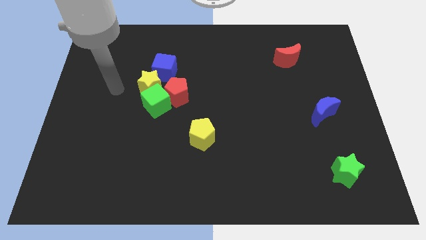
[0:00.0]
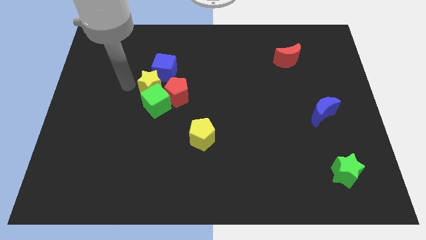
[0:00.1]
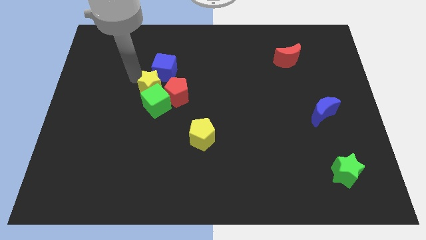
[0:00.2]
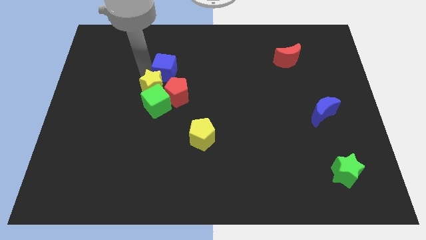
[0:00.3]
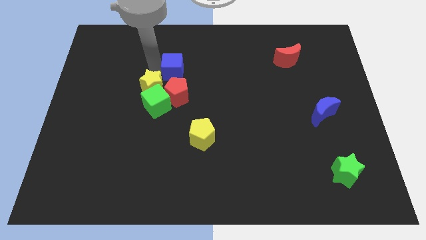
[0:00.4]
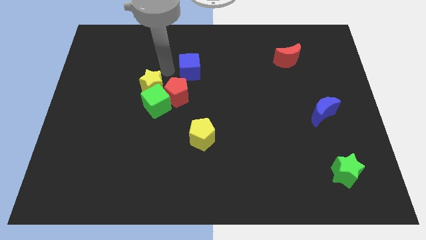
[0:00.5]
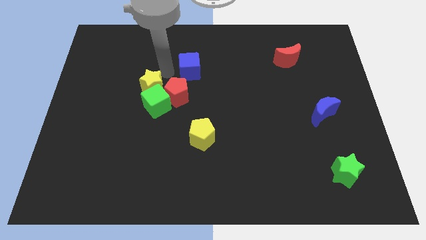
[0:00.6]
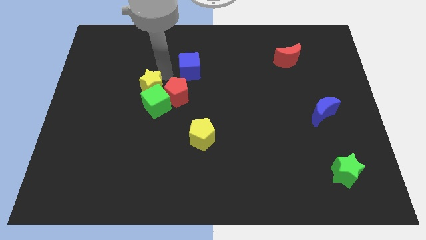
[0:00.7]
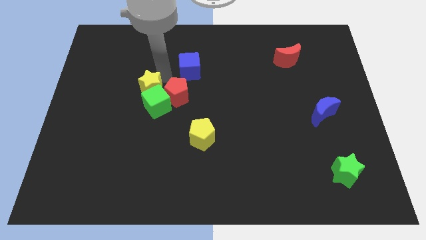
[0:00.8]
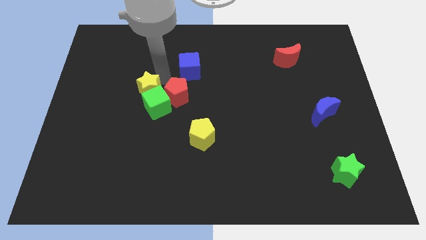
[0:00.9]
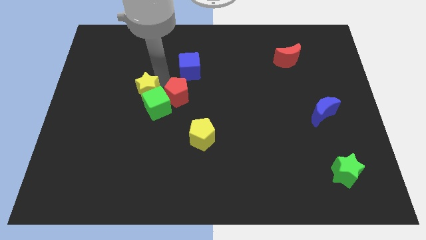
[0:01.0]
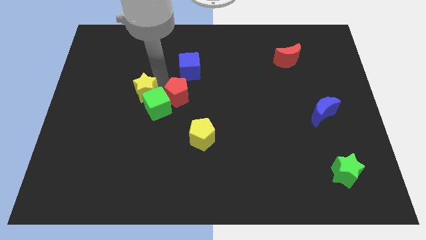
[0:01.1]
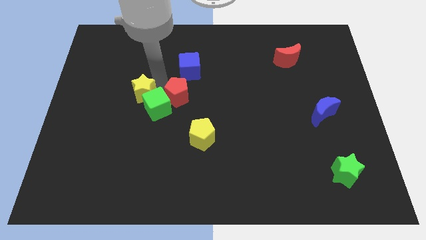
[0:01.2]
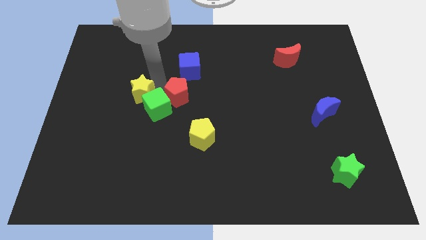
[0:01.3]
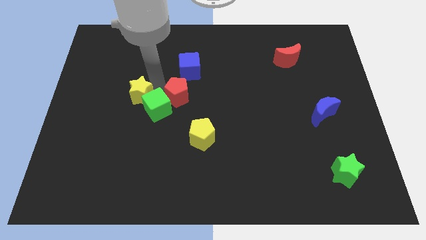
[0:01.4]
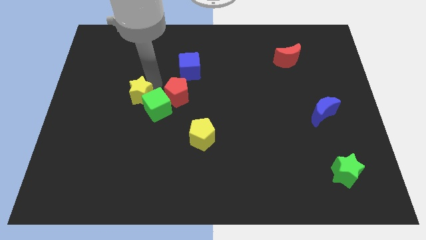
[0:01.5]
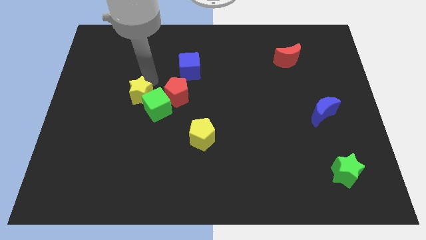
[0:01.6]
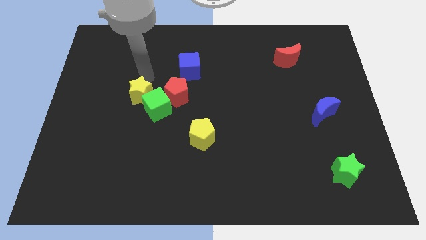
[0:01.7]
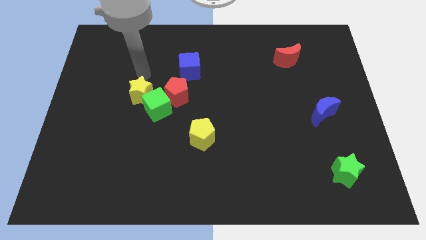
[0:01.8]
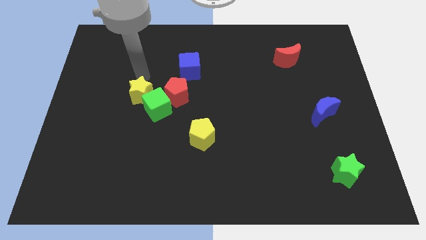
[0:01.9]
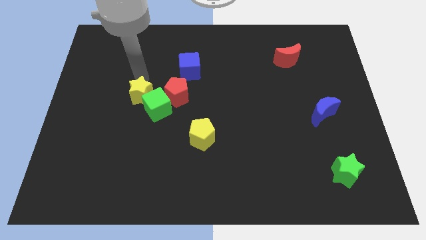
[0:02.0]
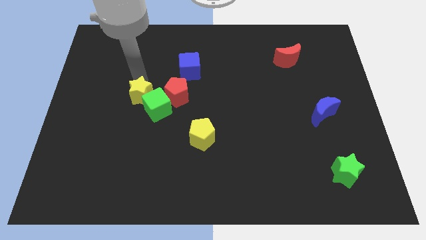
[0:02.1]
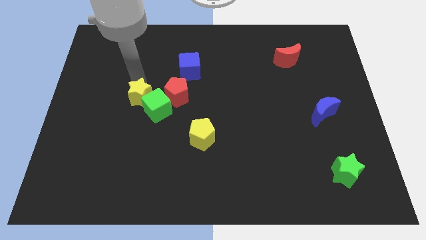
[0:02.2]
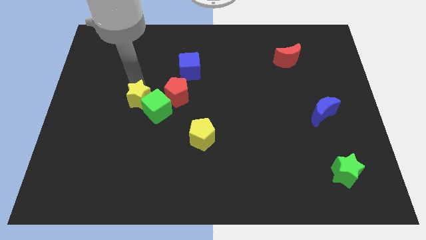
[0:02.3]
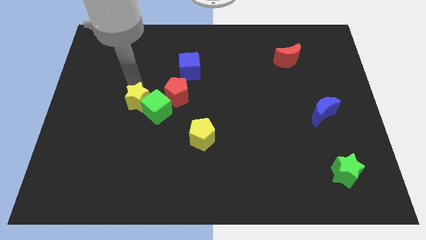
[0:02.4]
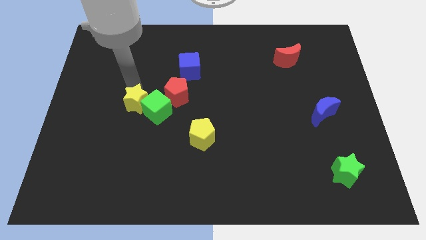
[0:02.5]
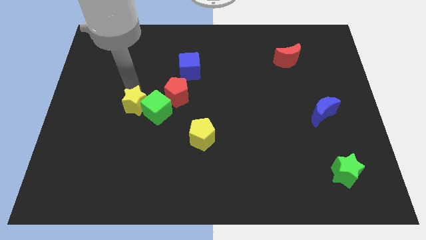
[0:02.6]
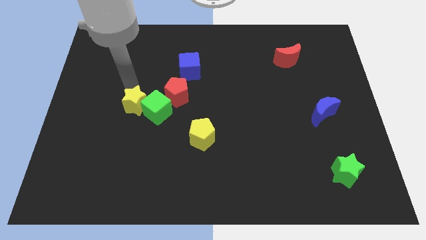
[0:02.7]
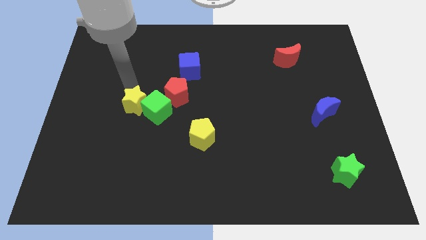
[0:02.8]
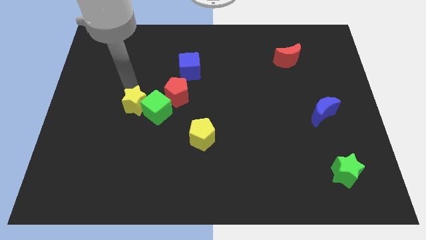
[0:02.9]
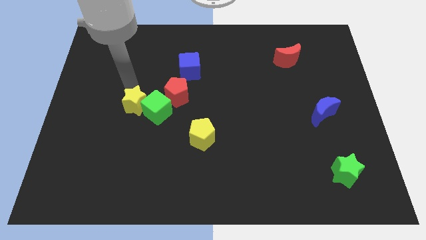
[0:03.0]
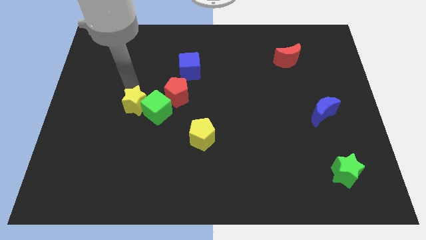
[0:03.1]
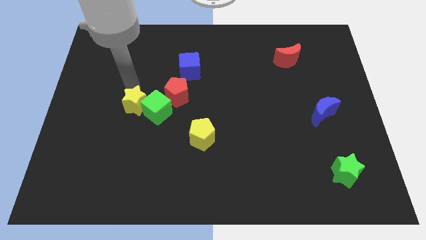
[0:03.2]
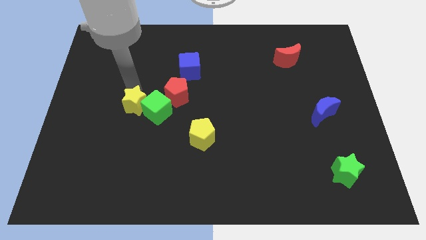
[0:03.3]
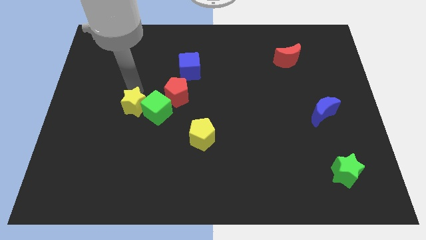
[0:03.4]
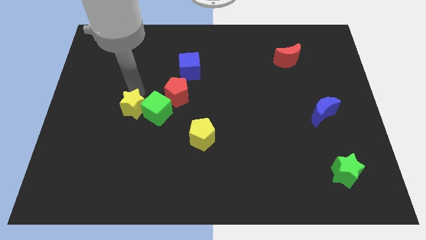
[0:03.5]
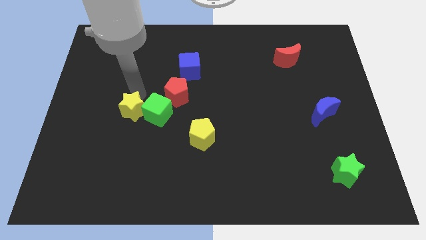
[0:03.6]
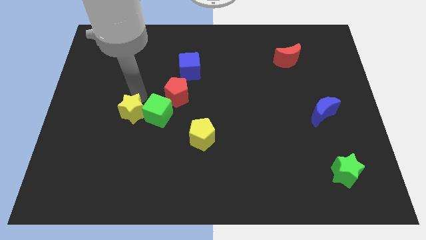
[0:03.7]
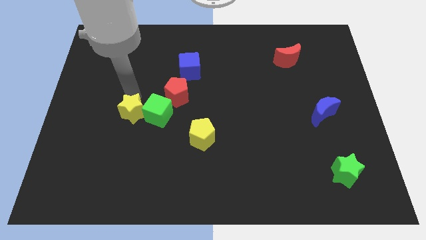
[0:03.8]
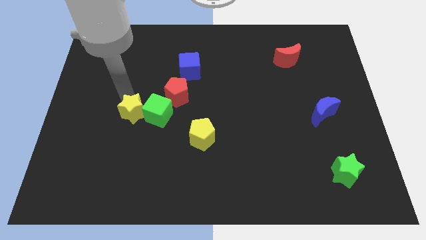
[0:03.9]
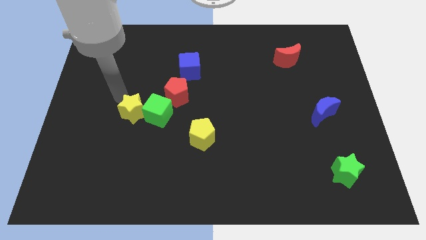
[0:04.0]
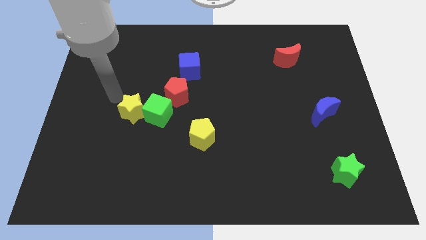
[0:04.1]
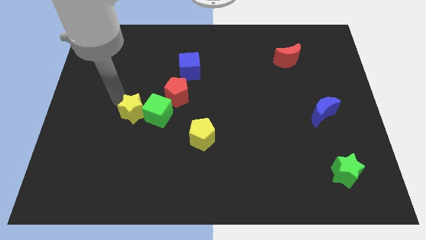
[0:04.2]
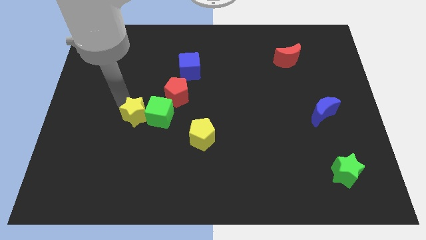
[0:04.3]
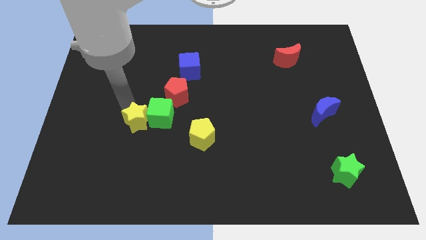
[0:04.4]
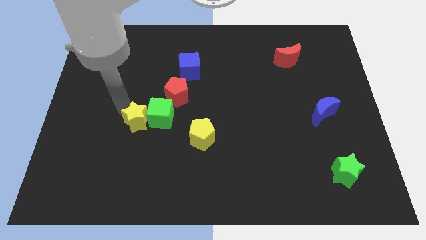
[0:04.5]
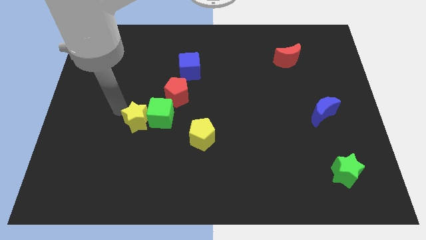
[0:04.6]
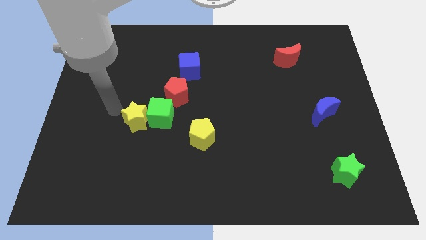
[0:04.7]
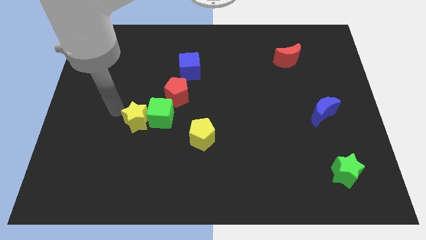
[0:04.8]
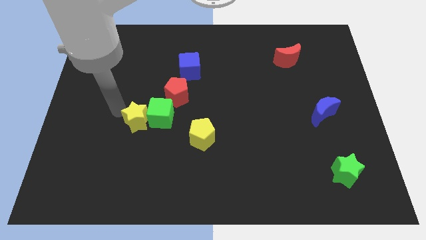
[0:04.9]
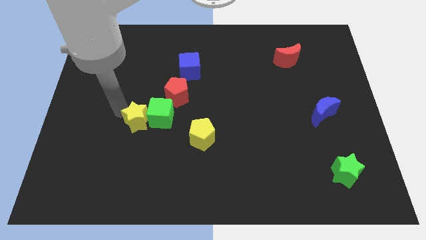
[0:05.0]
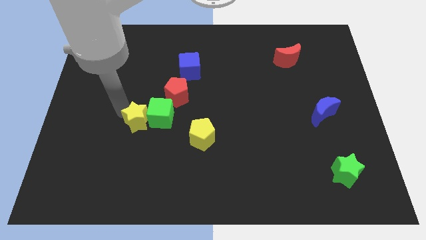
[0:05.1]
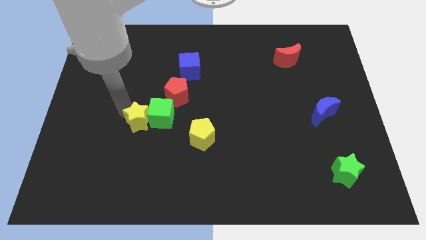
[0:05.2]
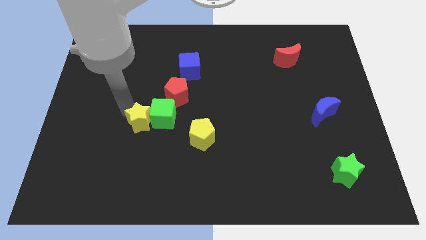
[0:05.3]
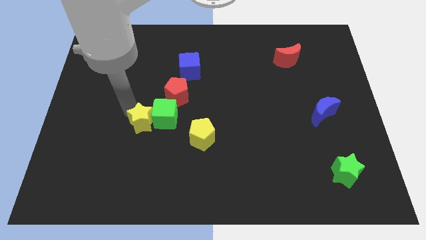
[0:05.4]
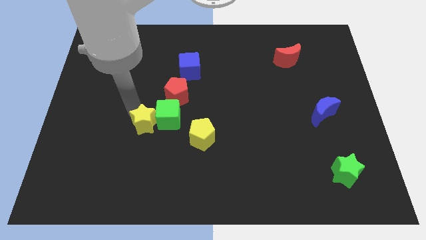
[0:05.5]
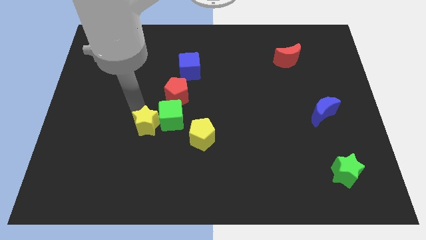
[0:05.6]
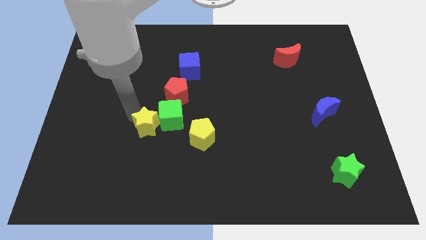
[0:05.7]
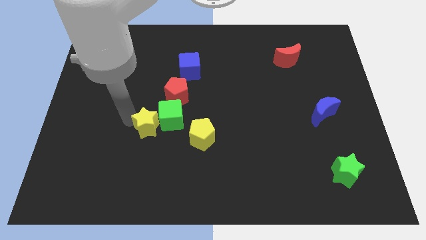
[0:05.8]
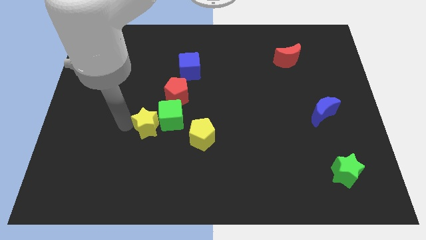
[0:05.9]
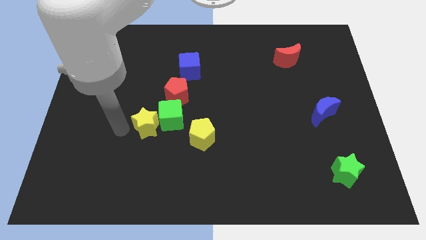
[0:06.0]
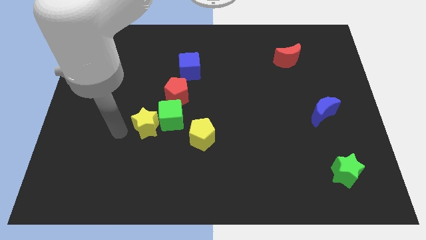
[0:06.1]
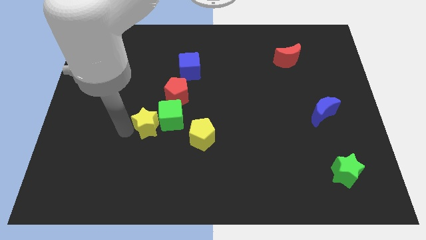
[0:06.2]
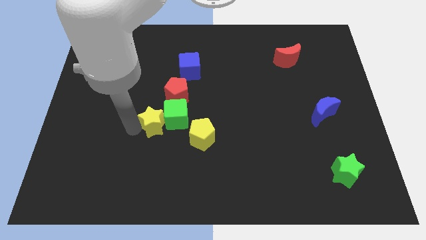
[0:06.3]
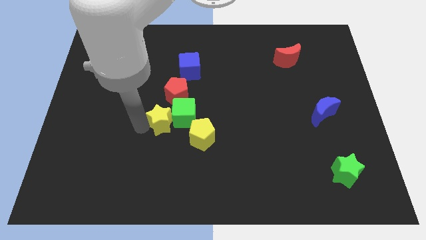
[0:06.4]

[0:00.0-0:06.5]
put the yellow star to the top left of the yellow pentagon

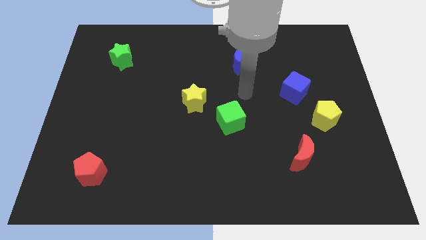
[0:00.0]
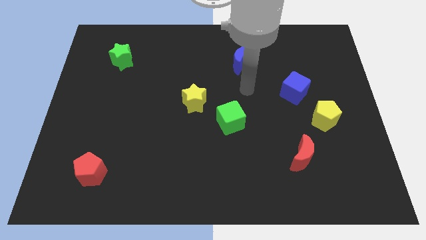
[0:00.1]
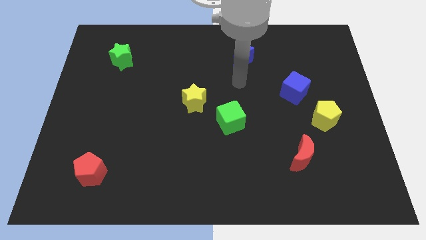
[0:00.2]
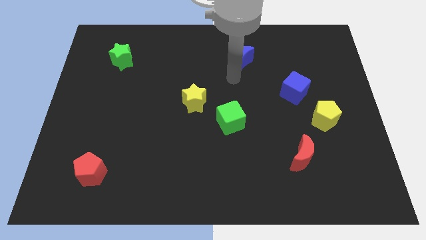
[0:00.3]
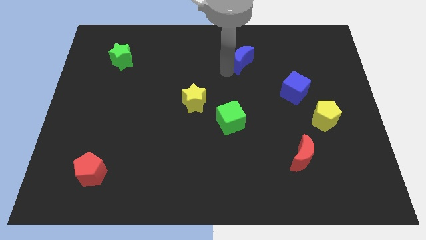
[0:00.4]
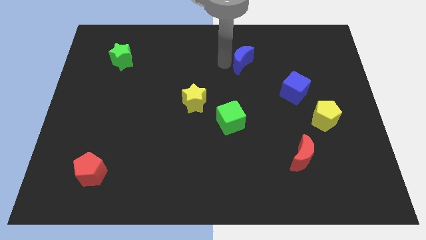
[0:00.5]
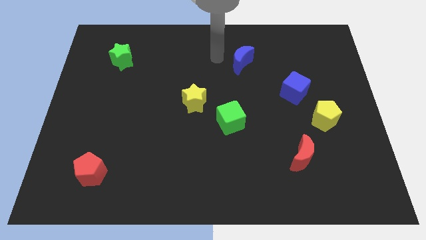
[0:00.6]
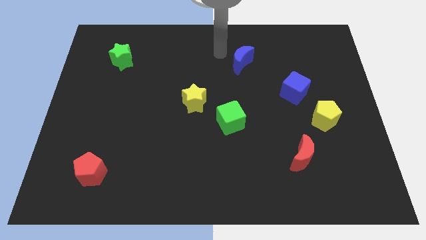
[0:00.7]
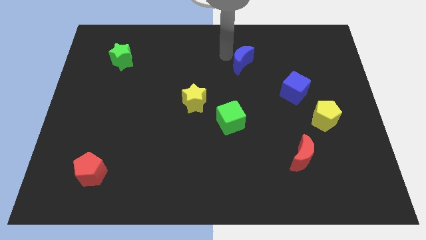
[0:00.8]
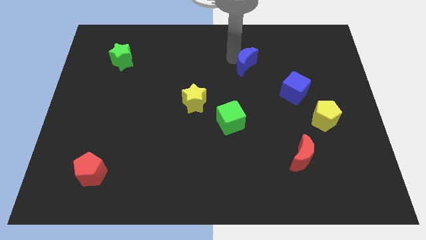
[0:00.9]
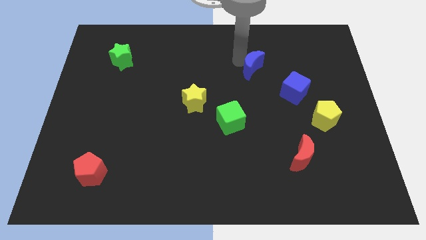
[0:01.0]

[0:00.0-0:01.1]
put the blue moon to the top left side of the blue cube
